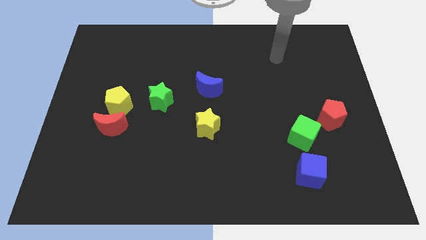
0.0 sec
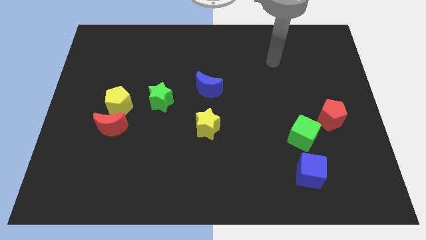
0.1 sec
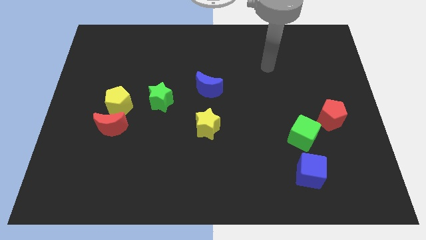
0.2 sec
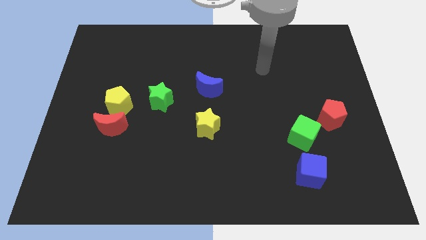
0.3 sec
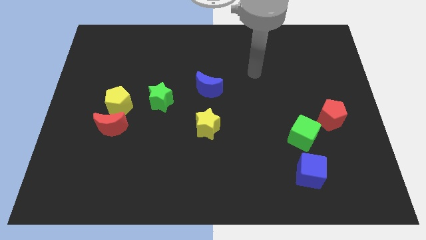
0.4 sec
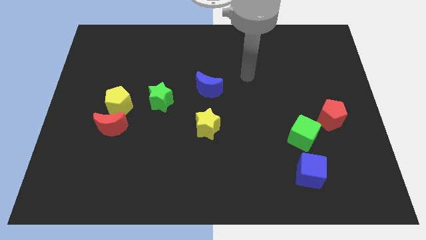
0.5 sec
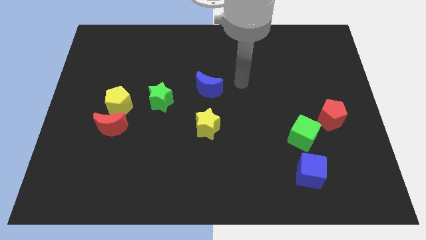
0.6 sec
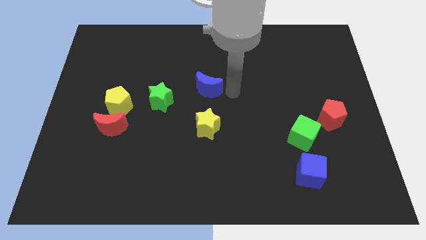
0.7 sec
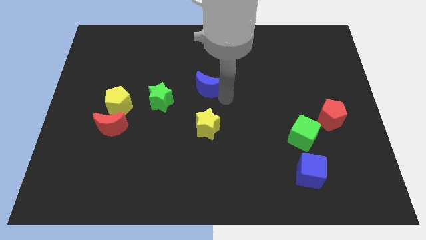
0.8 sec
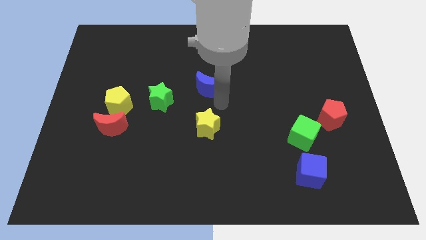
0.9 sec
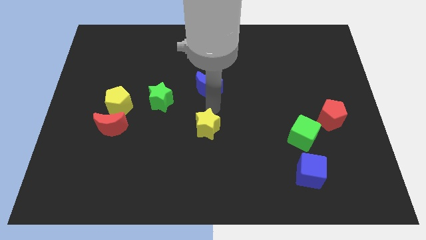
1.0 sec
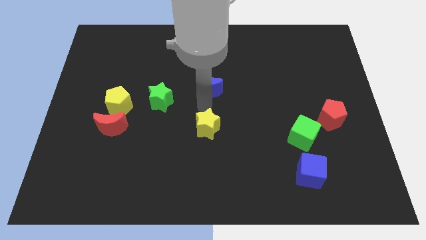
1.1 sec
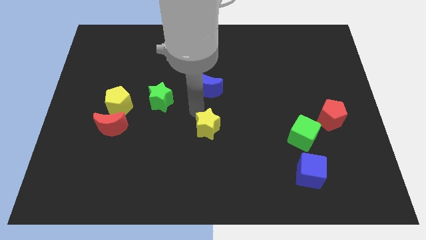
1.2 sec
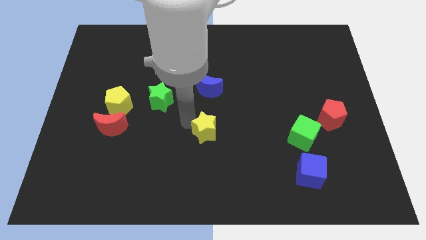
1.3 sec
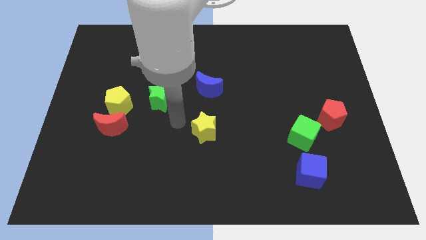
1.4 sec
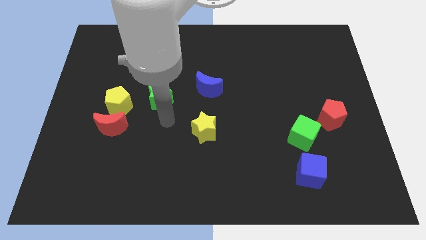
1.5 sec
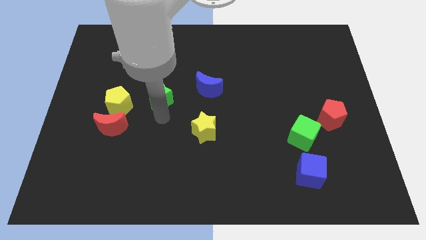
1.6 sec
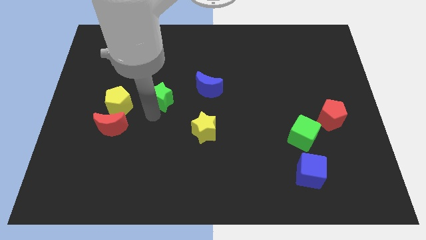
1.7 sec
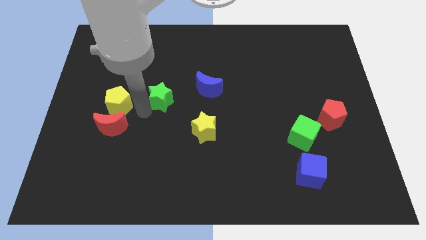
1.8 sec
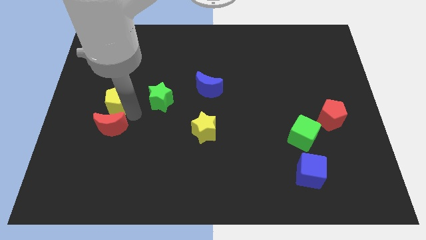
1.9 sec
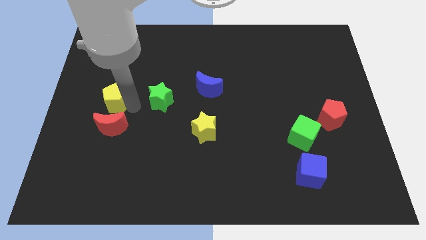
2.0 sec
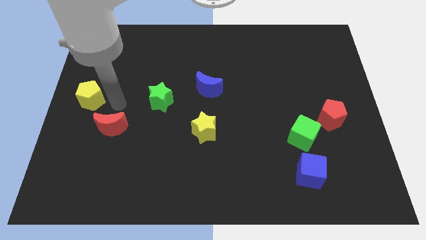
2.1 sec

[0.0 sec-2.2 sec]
pull the red moon apart from the yellow pentagon

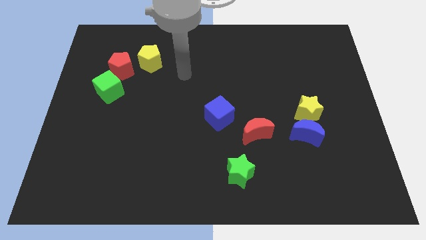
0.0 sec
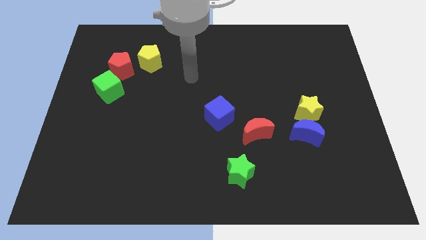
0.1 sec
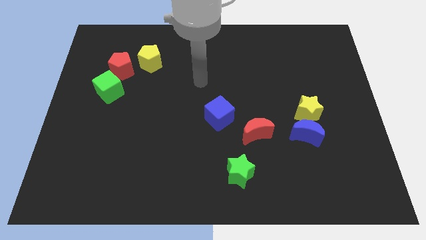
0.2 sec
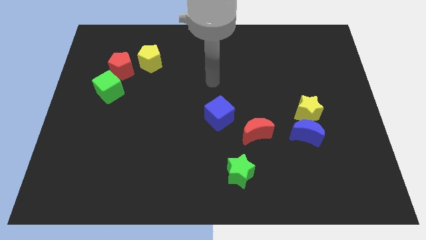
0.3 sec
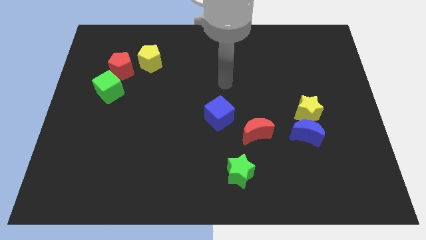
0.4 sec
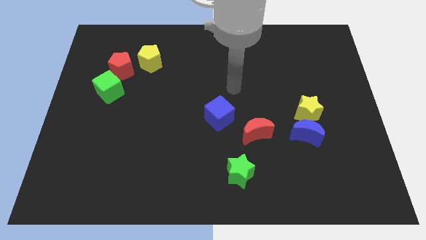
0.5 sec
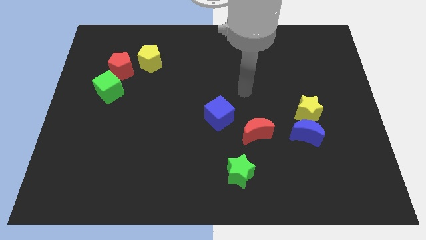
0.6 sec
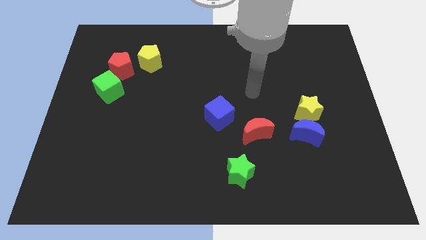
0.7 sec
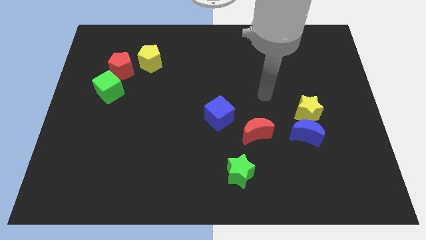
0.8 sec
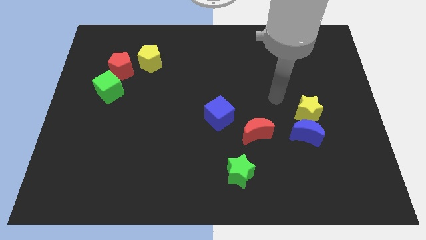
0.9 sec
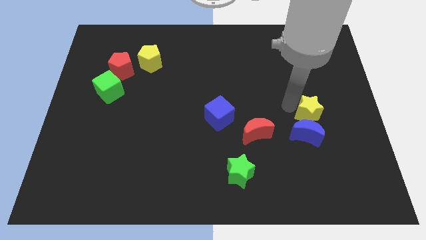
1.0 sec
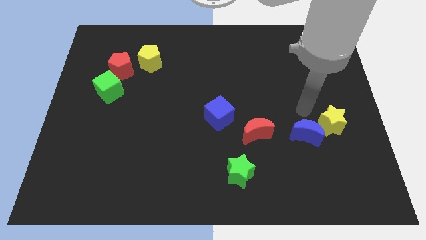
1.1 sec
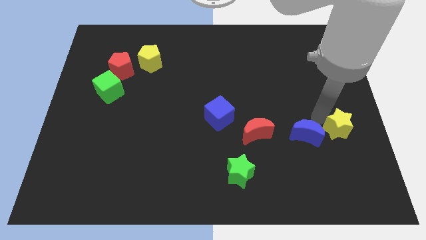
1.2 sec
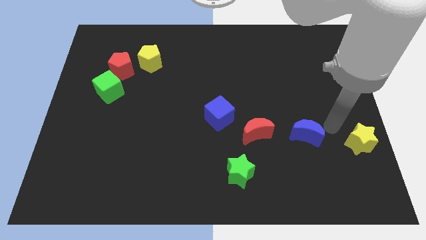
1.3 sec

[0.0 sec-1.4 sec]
move the blue moon away from the yellow star

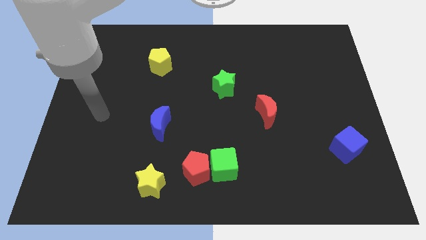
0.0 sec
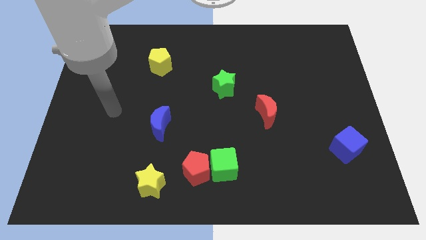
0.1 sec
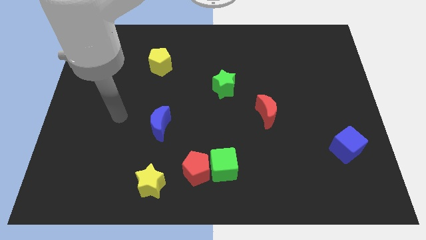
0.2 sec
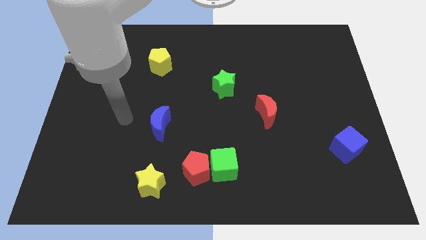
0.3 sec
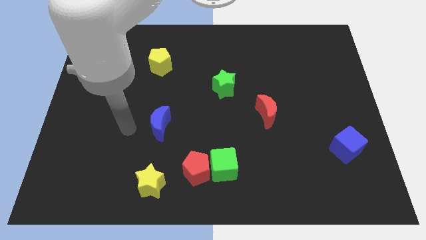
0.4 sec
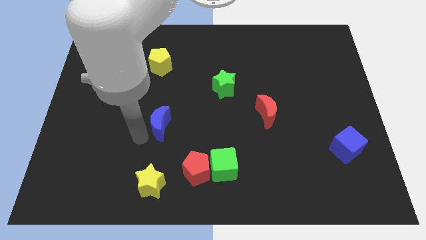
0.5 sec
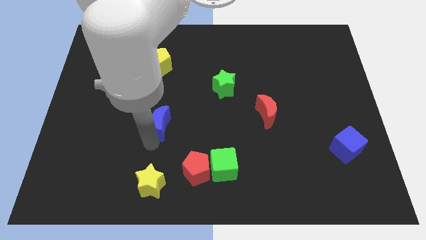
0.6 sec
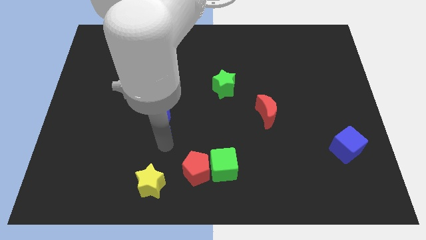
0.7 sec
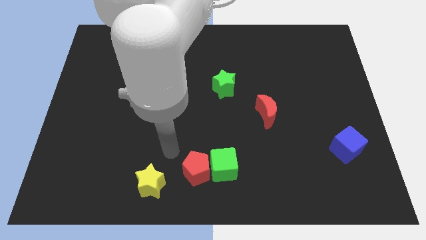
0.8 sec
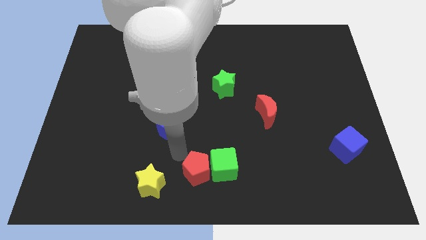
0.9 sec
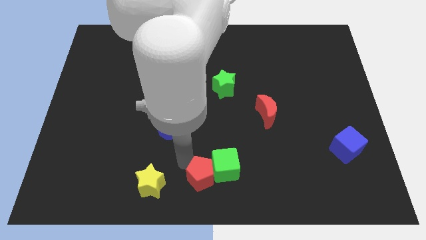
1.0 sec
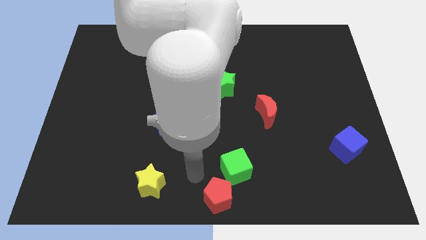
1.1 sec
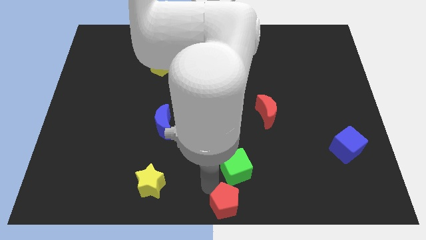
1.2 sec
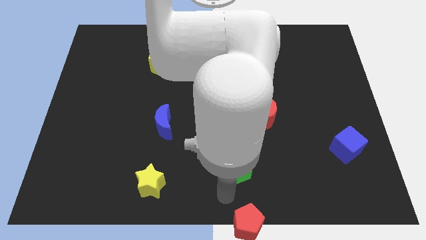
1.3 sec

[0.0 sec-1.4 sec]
move the green cube away from the red pentagon

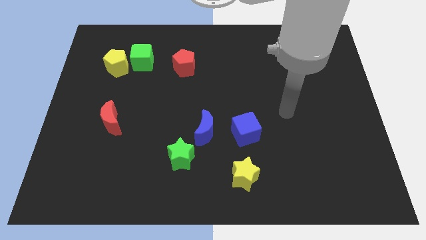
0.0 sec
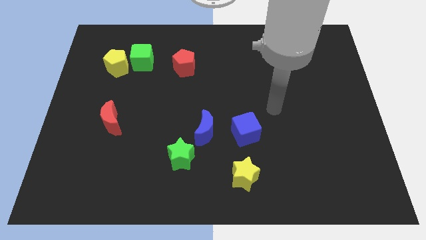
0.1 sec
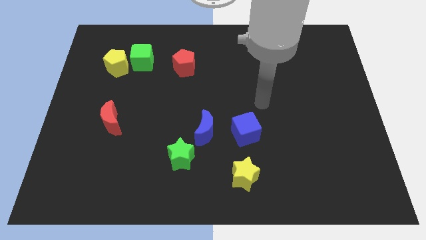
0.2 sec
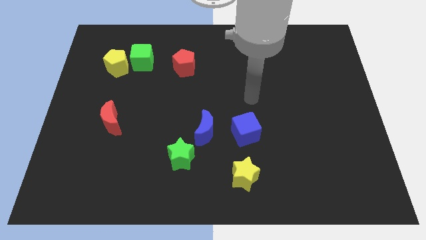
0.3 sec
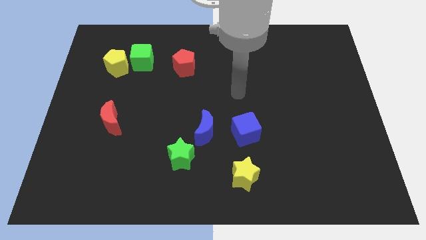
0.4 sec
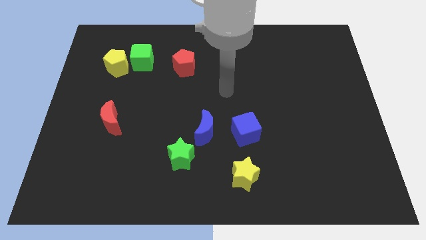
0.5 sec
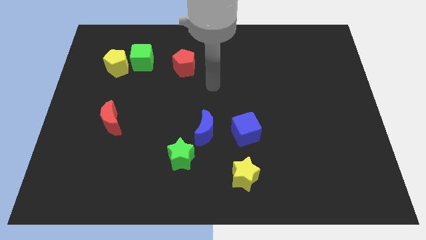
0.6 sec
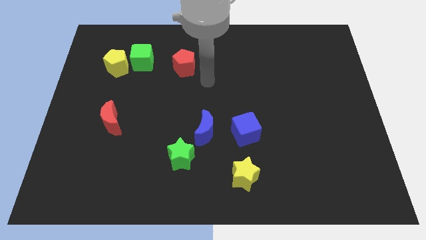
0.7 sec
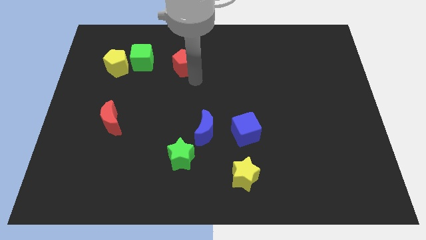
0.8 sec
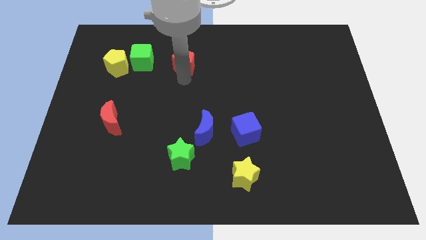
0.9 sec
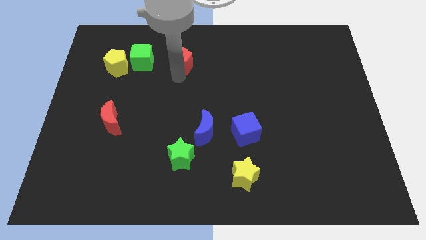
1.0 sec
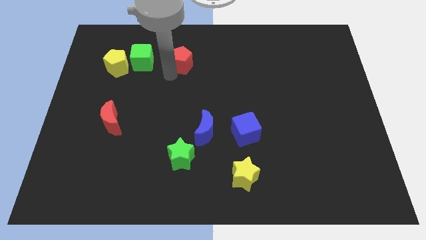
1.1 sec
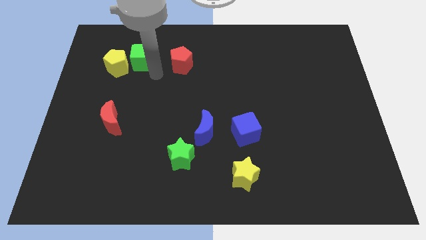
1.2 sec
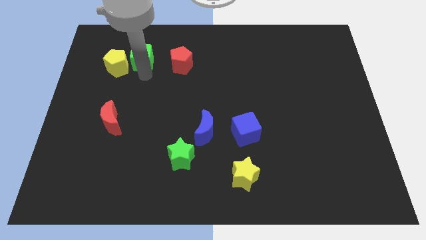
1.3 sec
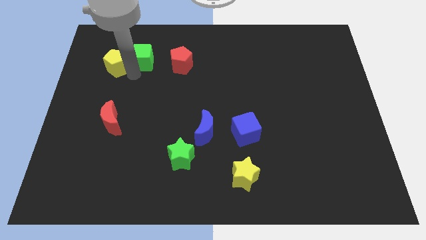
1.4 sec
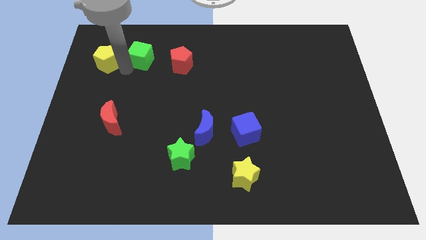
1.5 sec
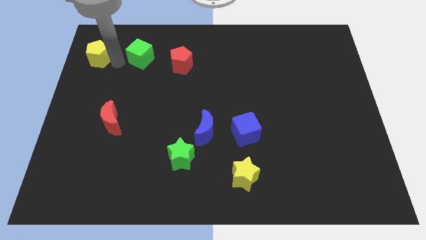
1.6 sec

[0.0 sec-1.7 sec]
move the green cube away from the yellow pentagon

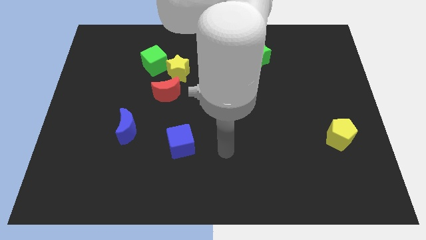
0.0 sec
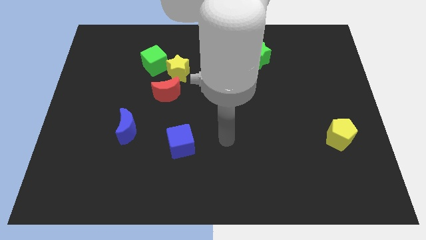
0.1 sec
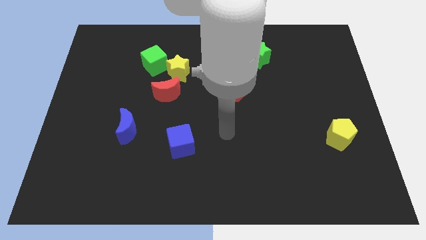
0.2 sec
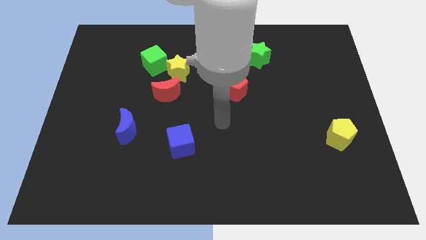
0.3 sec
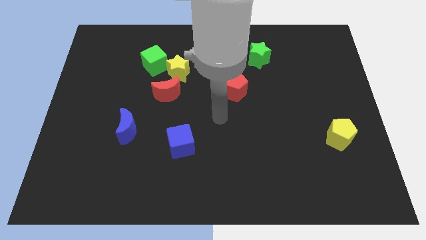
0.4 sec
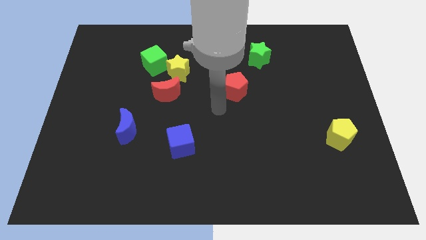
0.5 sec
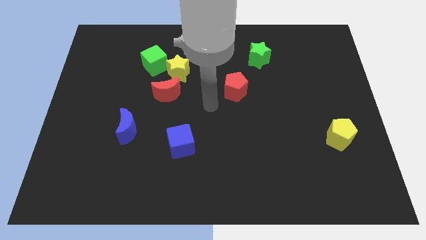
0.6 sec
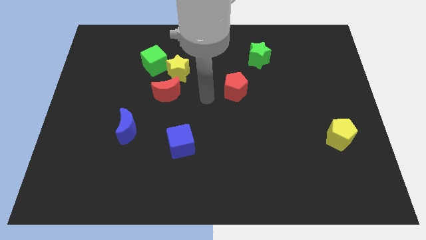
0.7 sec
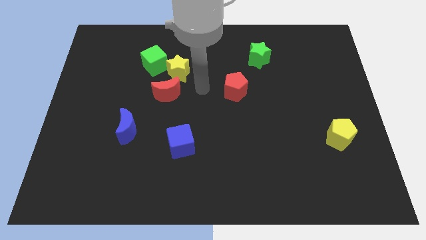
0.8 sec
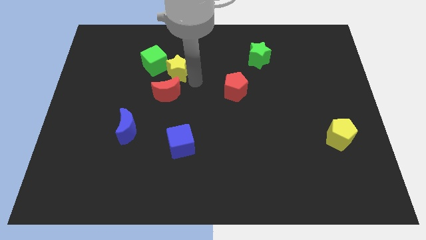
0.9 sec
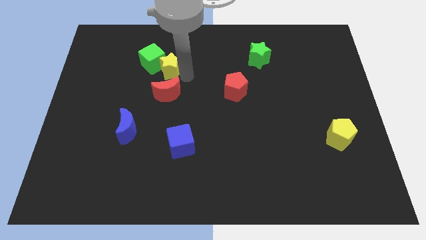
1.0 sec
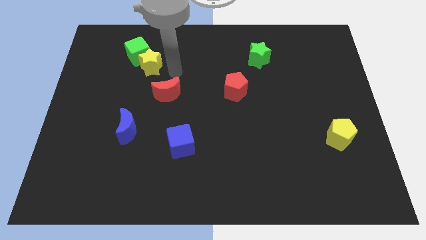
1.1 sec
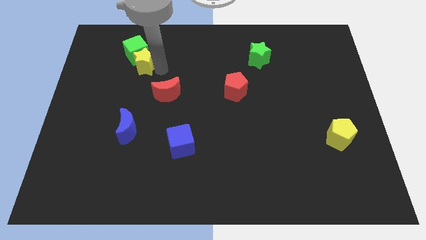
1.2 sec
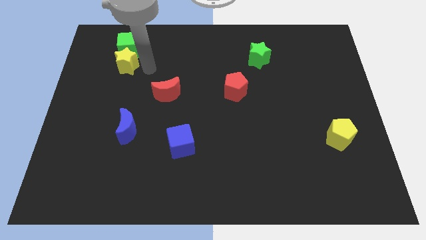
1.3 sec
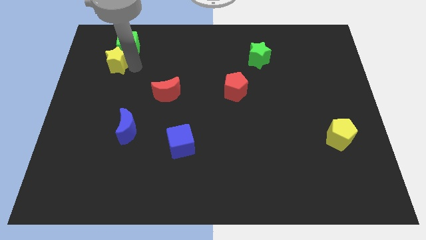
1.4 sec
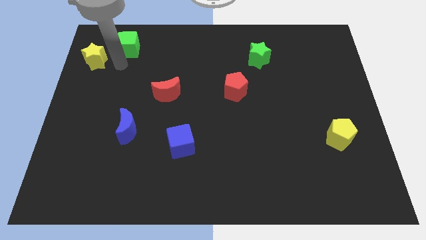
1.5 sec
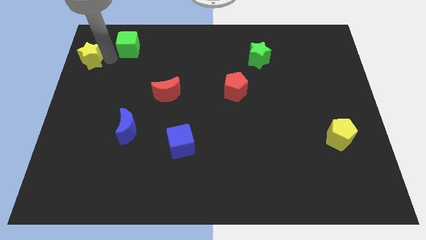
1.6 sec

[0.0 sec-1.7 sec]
pull the green cube apart from the yellow star

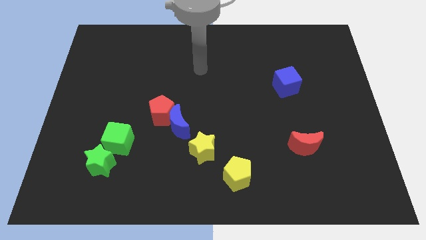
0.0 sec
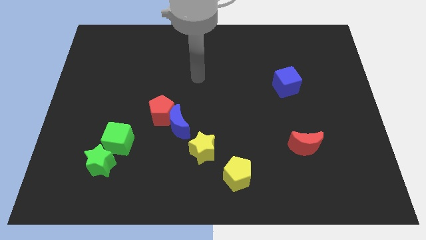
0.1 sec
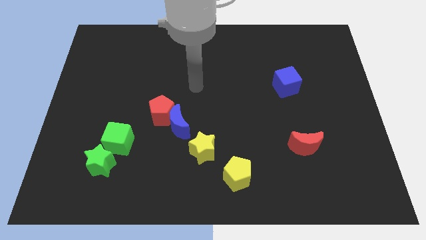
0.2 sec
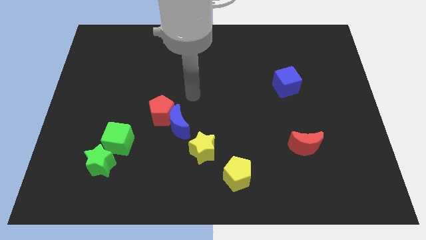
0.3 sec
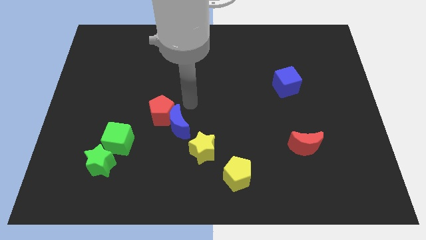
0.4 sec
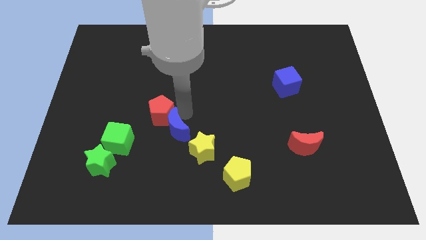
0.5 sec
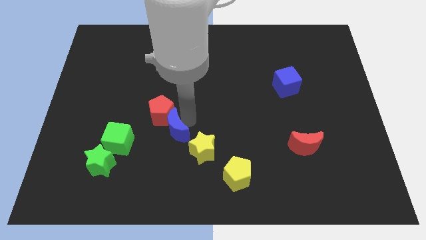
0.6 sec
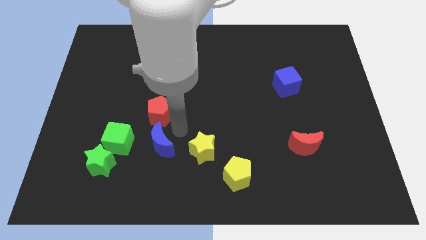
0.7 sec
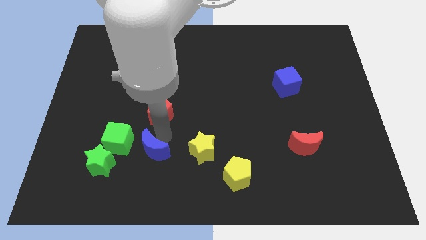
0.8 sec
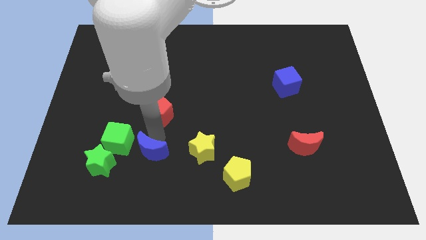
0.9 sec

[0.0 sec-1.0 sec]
pull the red pentagon apart from the blue moon
